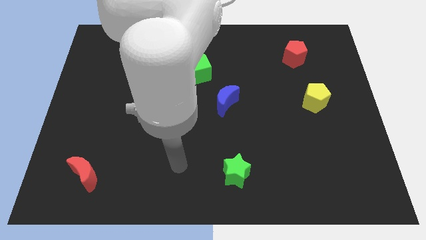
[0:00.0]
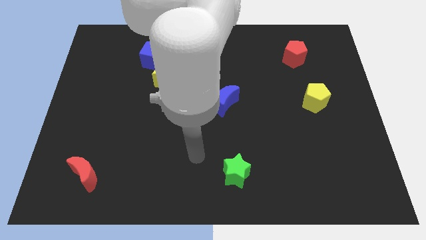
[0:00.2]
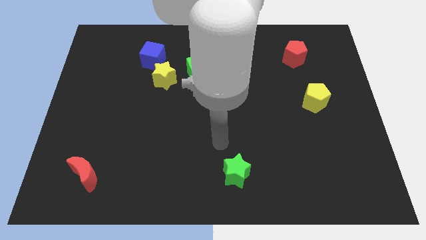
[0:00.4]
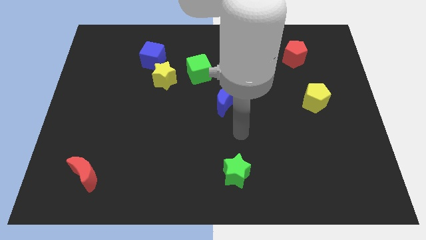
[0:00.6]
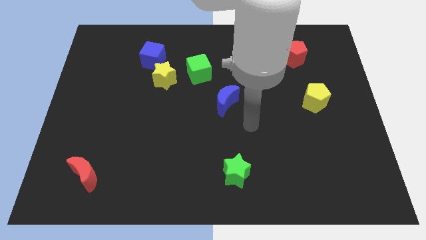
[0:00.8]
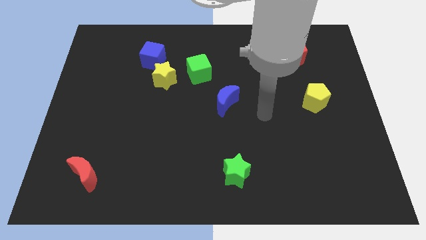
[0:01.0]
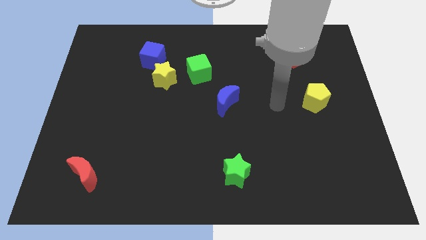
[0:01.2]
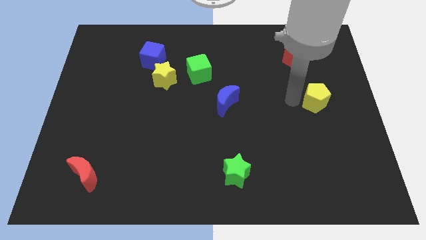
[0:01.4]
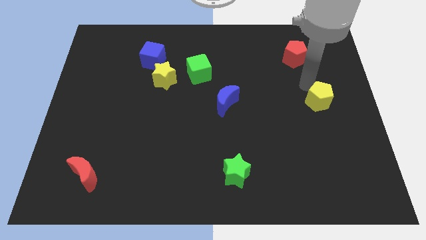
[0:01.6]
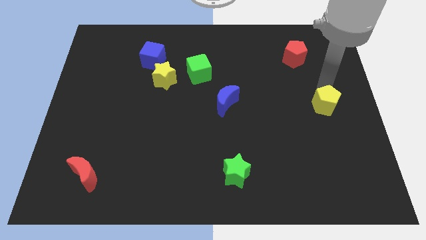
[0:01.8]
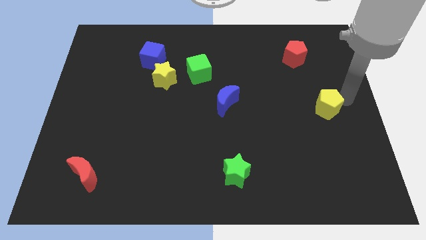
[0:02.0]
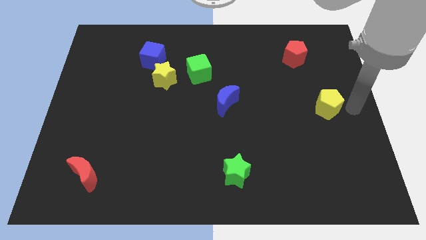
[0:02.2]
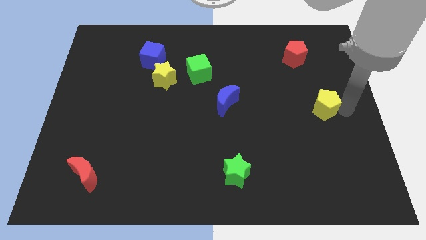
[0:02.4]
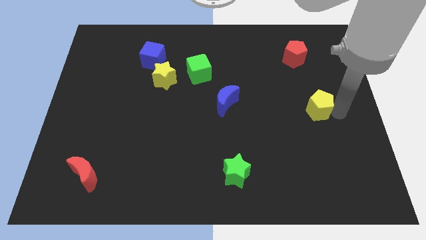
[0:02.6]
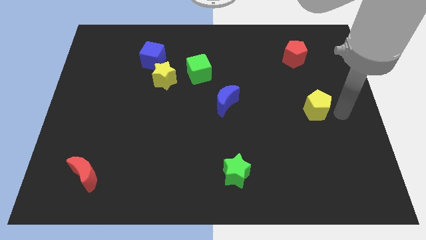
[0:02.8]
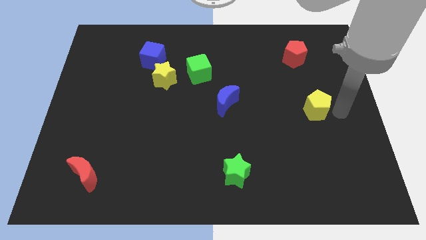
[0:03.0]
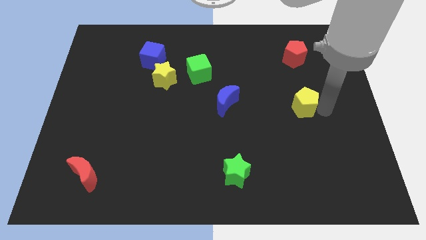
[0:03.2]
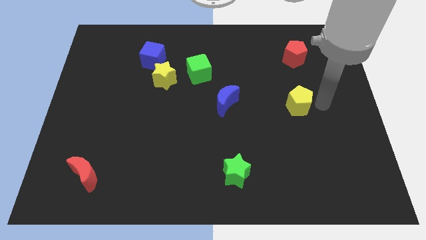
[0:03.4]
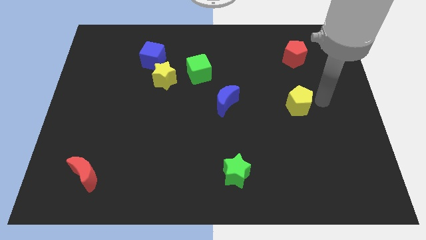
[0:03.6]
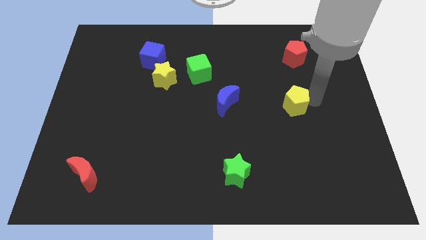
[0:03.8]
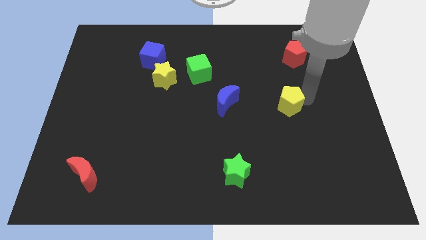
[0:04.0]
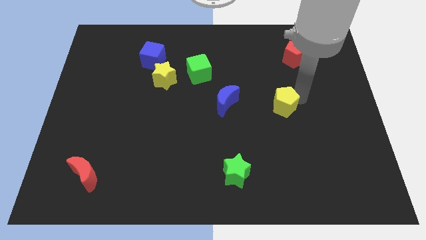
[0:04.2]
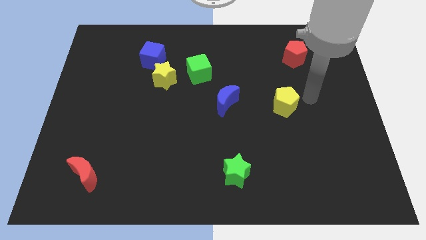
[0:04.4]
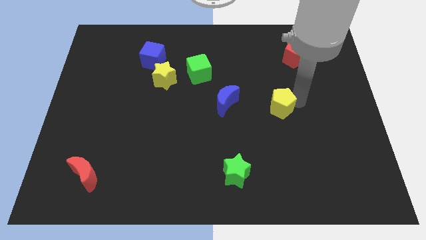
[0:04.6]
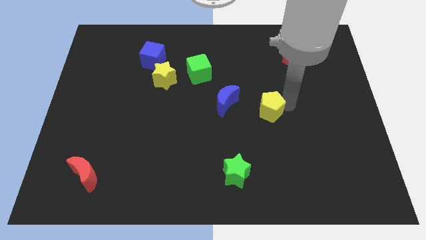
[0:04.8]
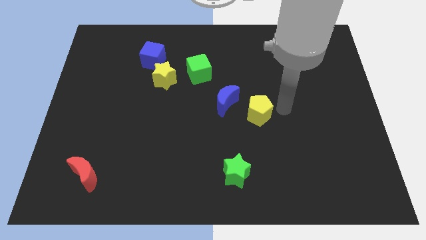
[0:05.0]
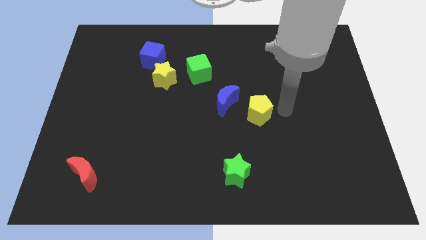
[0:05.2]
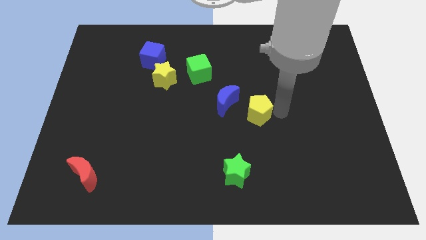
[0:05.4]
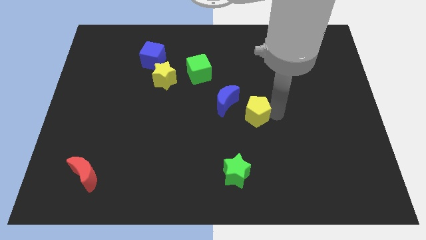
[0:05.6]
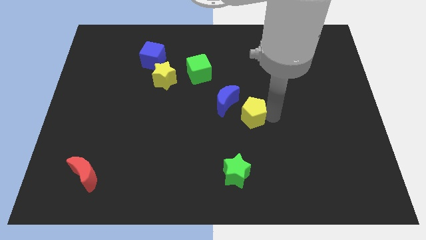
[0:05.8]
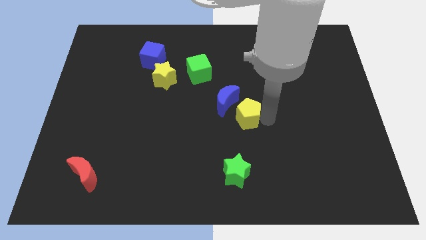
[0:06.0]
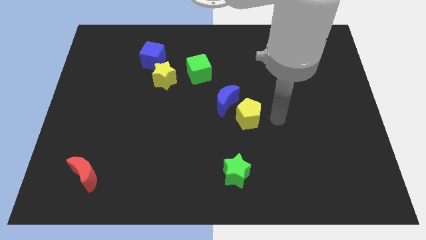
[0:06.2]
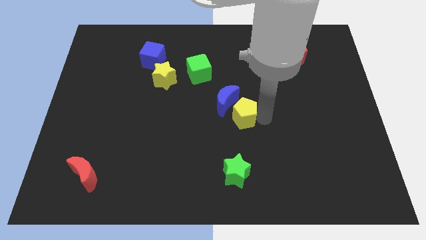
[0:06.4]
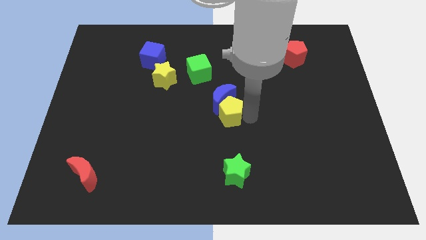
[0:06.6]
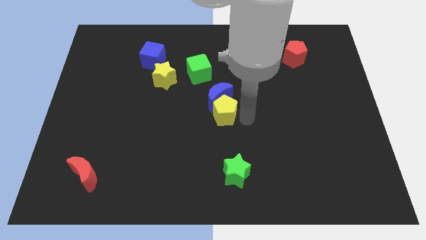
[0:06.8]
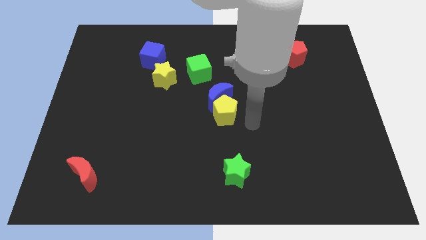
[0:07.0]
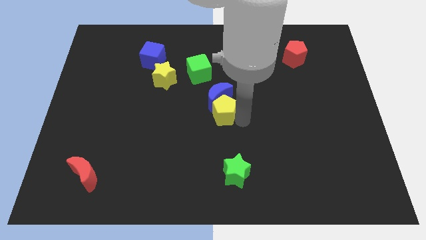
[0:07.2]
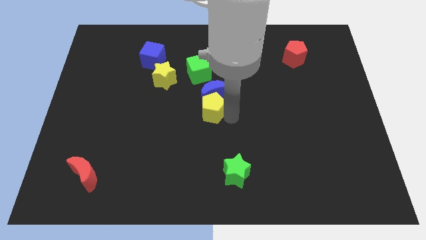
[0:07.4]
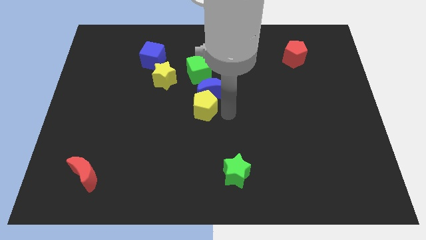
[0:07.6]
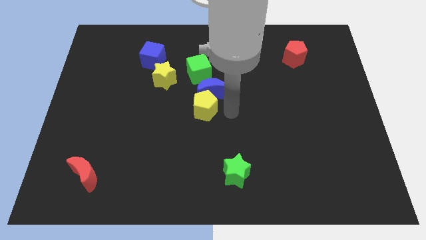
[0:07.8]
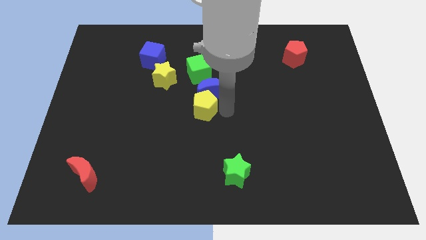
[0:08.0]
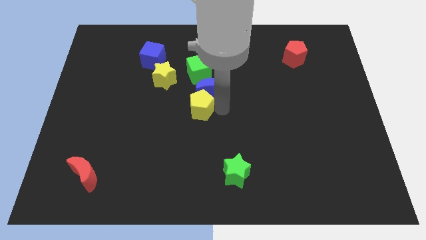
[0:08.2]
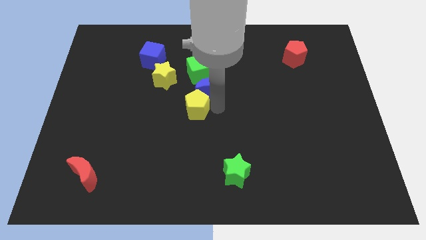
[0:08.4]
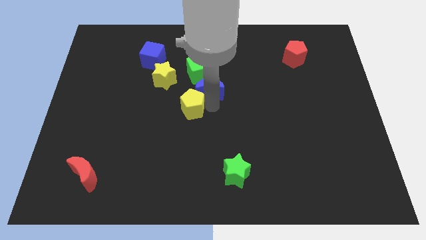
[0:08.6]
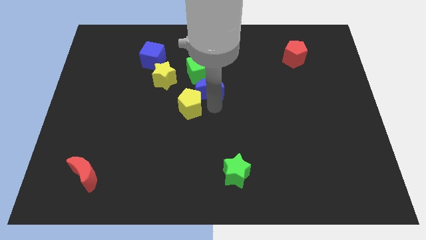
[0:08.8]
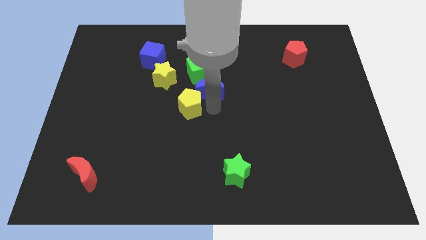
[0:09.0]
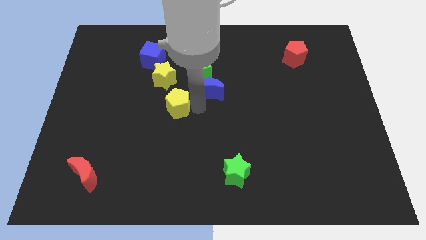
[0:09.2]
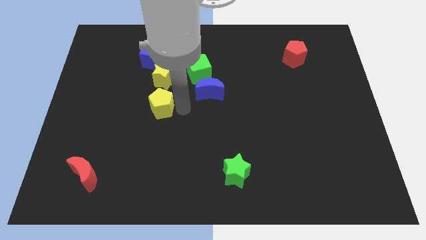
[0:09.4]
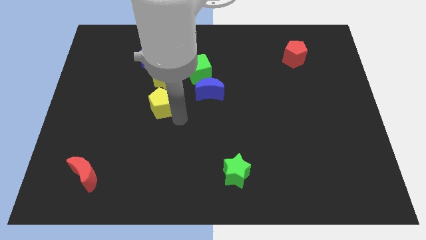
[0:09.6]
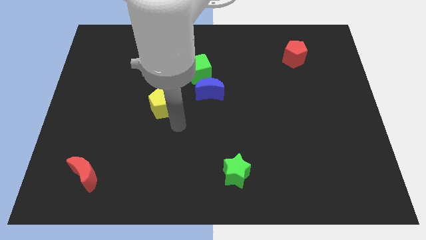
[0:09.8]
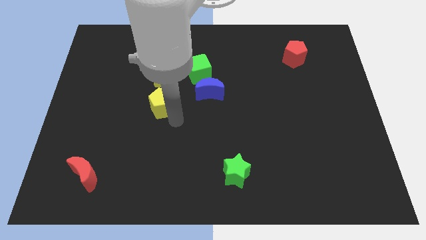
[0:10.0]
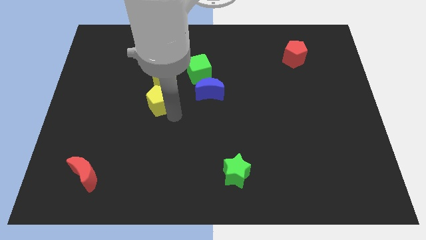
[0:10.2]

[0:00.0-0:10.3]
push the yellow pentagon to the bottom side of the blue cube

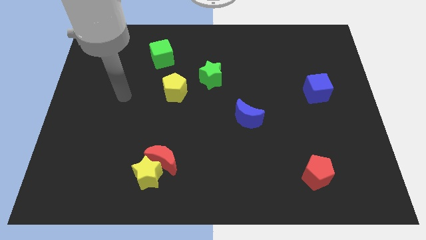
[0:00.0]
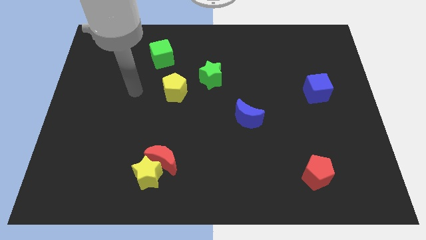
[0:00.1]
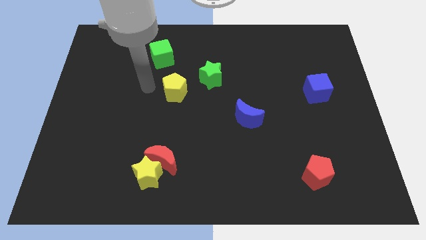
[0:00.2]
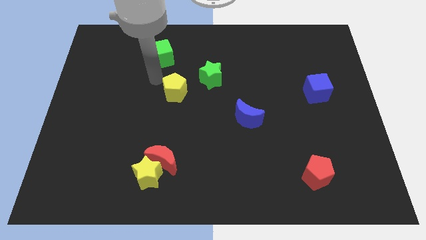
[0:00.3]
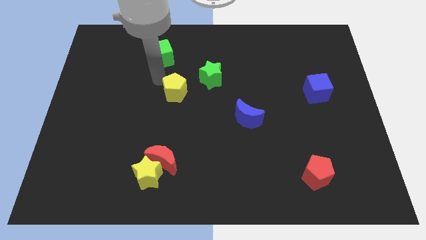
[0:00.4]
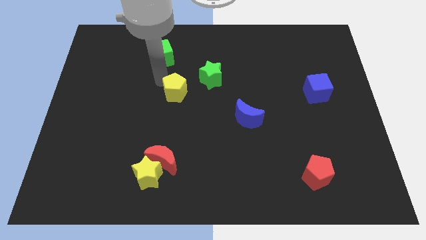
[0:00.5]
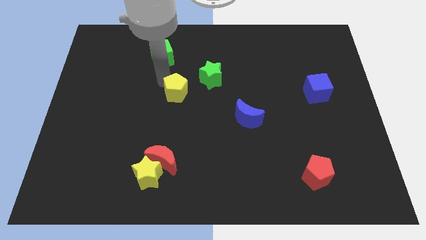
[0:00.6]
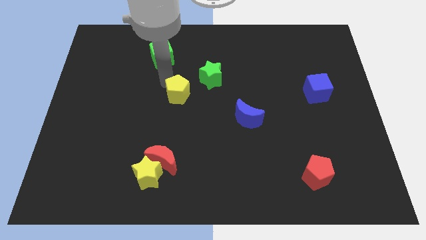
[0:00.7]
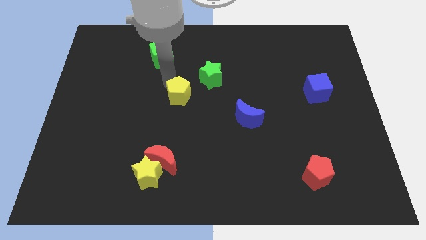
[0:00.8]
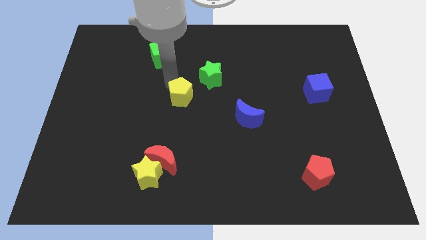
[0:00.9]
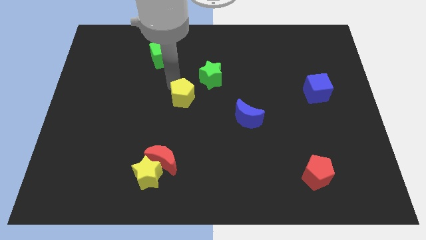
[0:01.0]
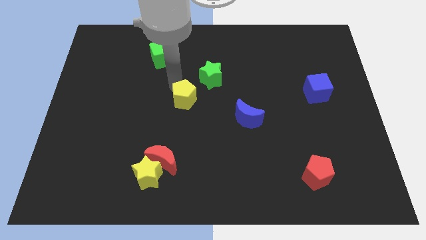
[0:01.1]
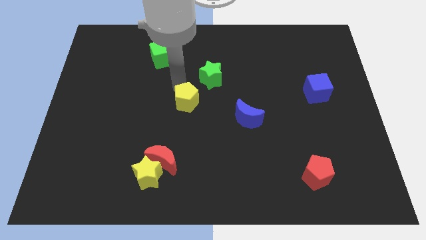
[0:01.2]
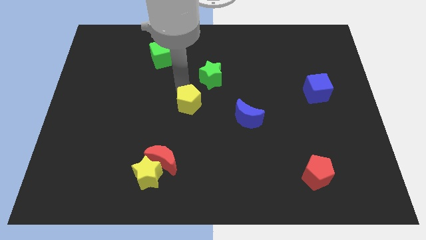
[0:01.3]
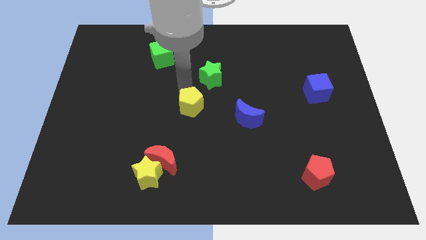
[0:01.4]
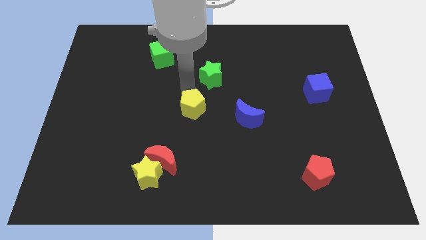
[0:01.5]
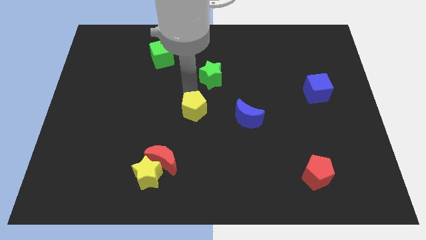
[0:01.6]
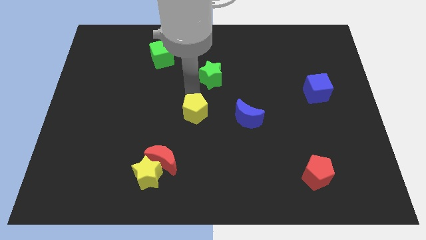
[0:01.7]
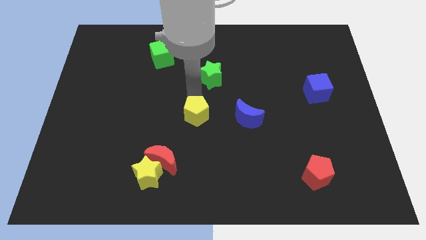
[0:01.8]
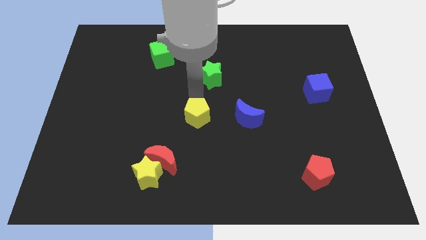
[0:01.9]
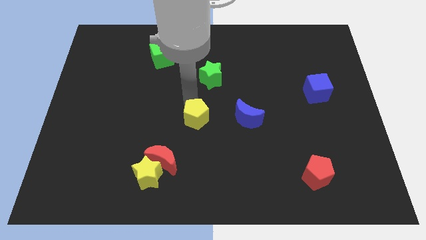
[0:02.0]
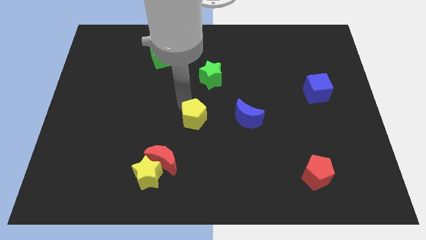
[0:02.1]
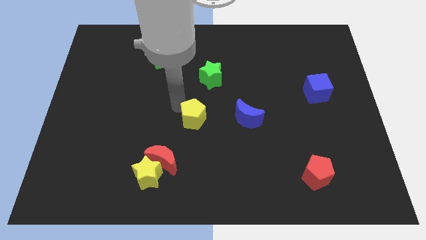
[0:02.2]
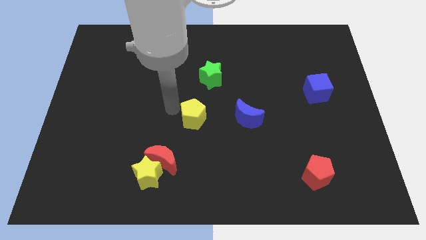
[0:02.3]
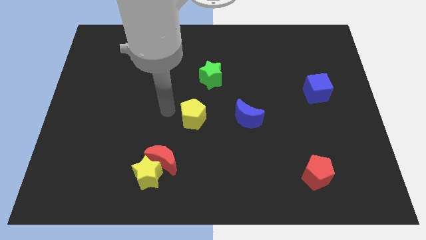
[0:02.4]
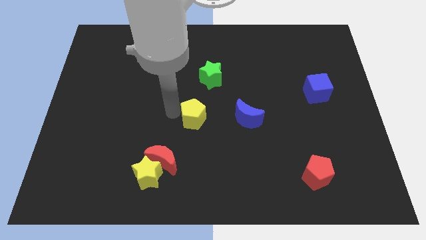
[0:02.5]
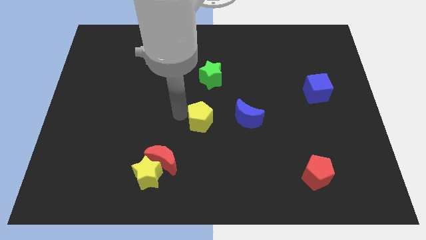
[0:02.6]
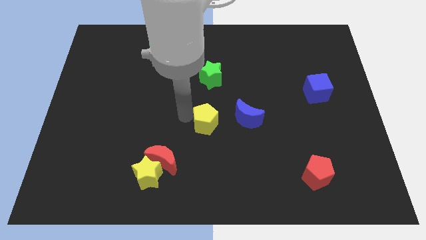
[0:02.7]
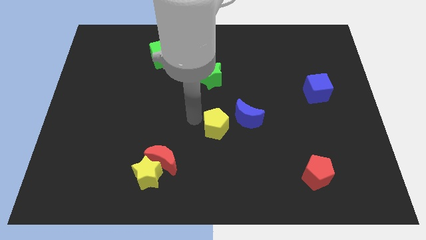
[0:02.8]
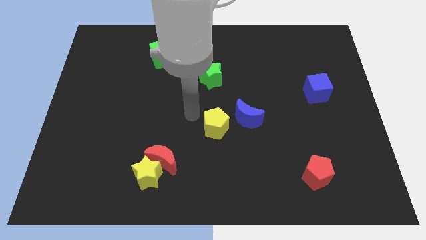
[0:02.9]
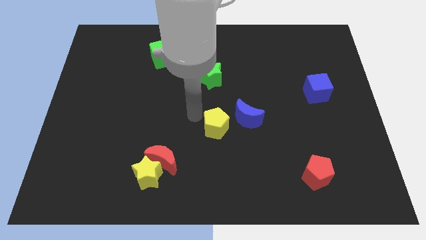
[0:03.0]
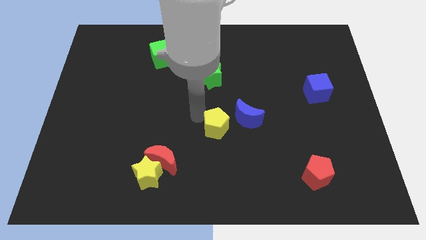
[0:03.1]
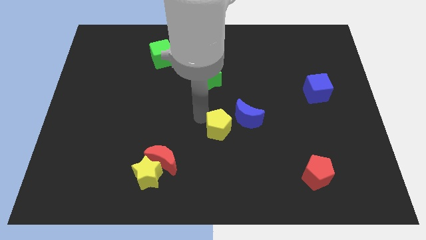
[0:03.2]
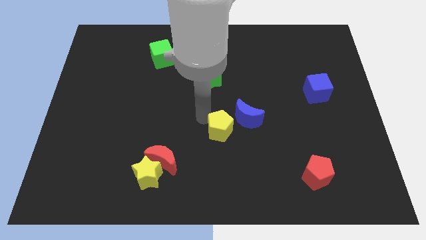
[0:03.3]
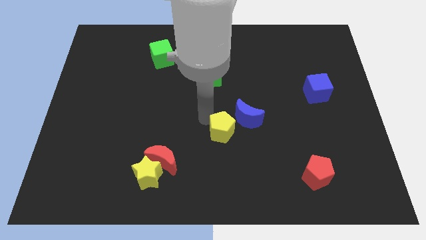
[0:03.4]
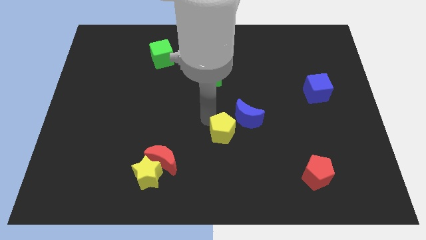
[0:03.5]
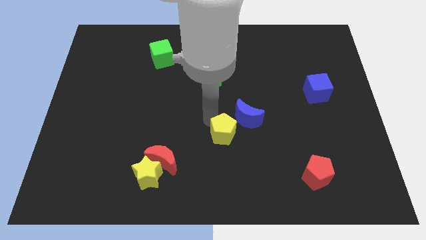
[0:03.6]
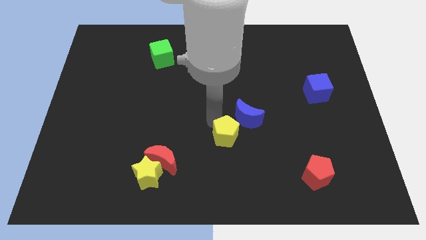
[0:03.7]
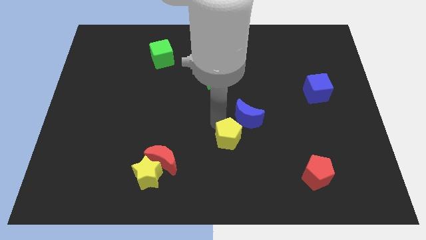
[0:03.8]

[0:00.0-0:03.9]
move the yellow pentagon to the bottom of the blue moon
